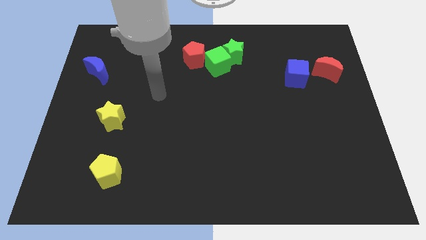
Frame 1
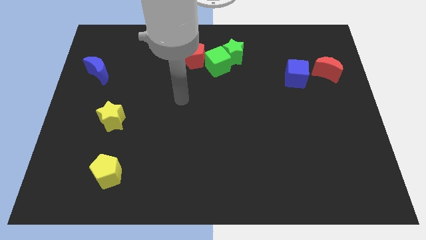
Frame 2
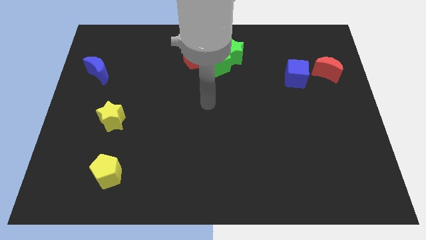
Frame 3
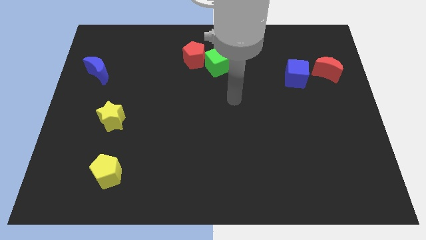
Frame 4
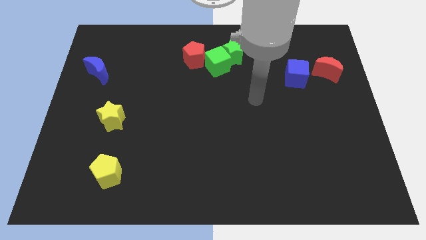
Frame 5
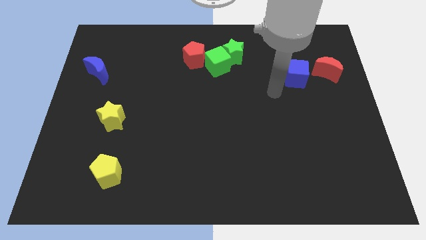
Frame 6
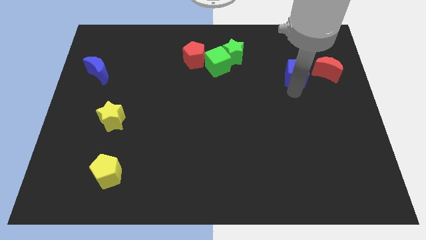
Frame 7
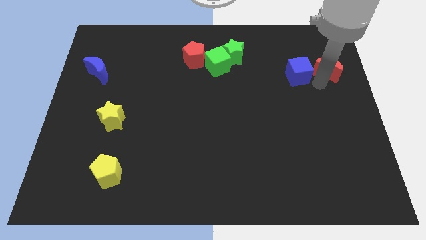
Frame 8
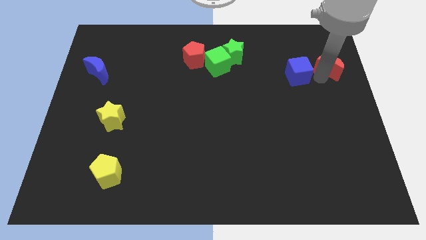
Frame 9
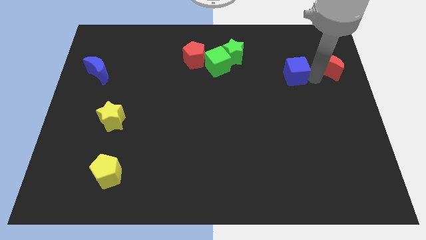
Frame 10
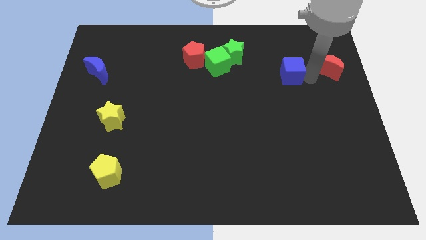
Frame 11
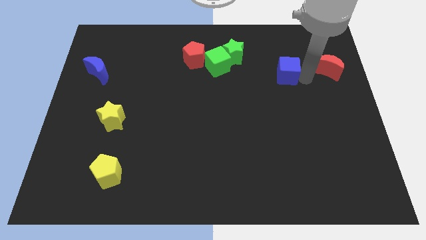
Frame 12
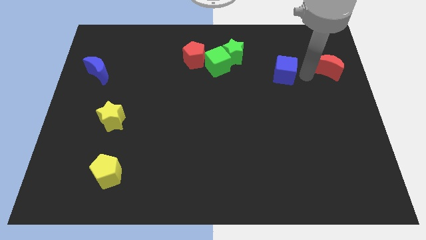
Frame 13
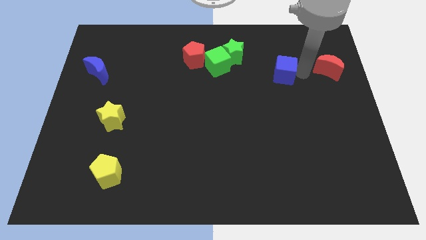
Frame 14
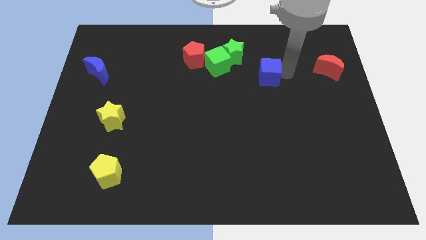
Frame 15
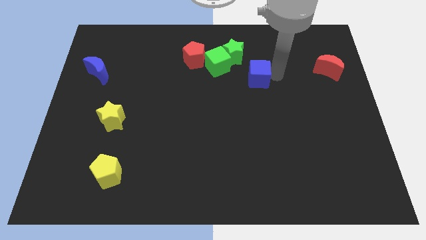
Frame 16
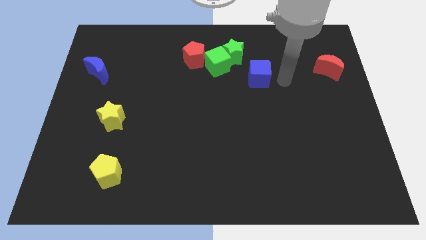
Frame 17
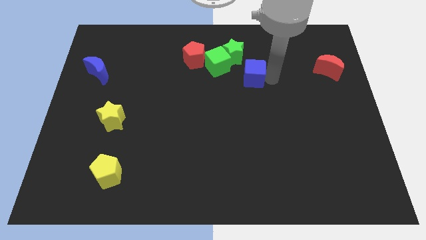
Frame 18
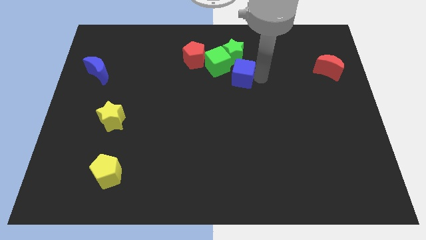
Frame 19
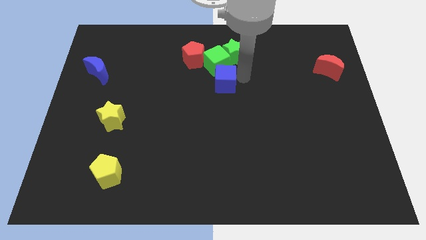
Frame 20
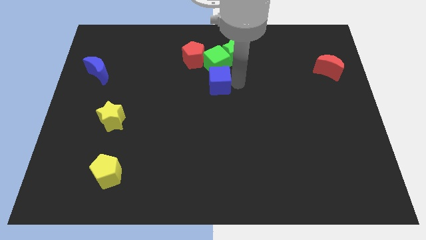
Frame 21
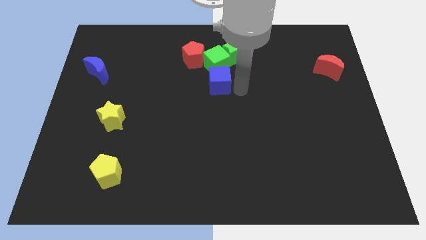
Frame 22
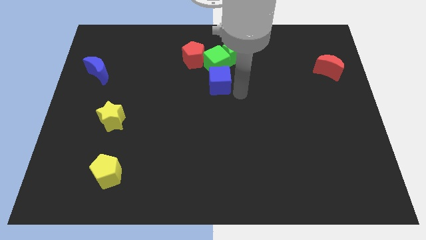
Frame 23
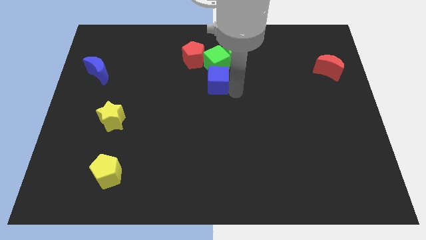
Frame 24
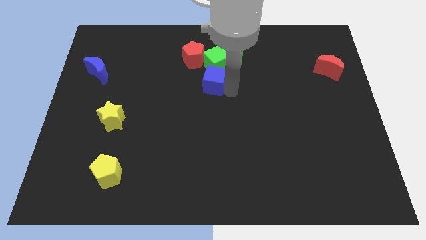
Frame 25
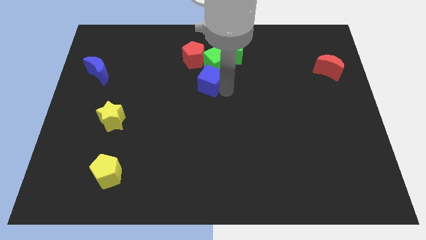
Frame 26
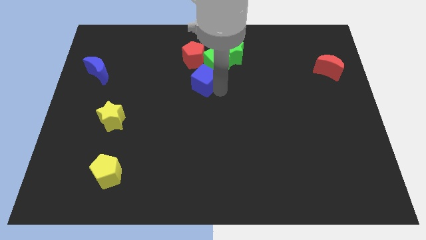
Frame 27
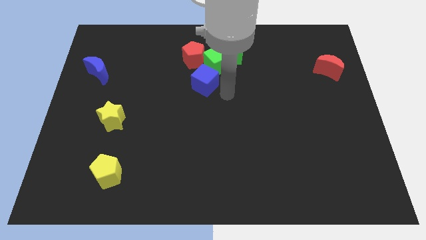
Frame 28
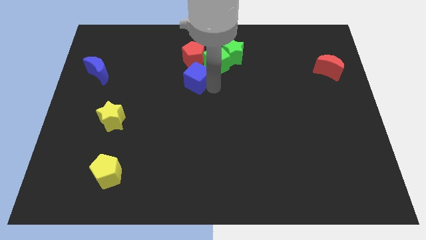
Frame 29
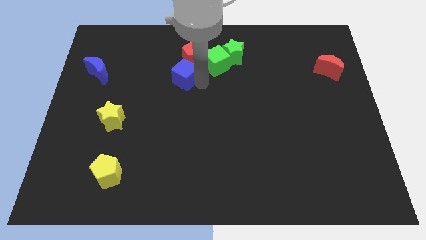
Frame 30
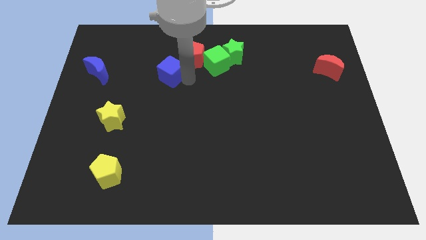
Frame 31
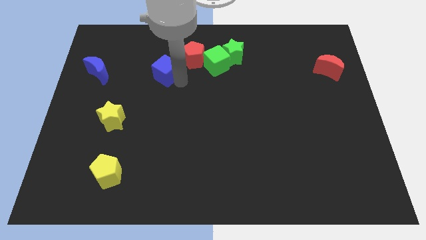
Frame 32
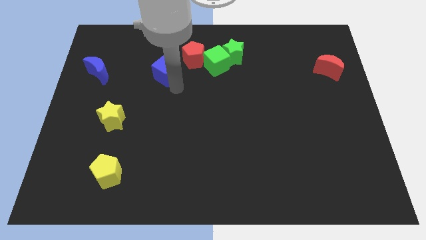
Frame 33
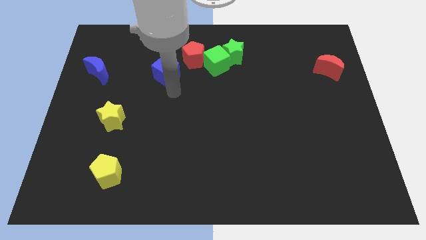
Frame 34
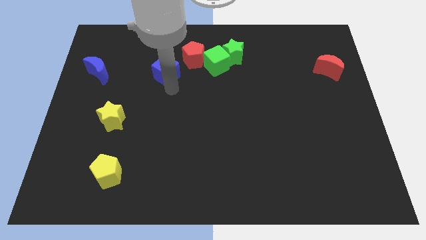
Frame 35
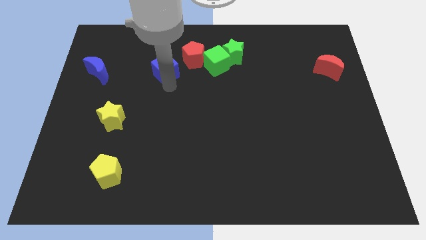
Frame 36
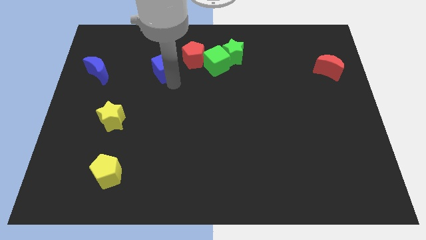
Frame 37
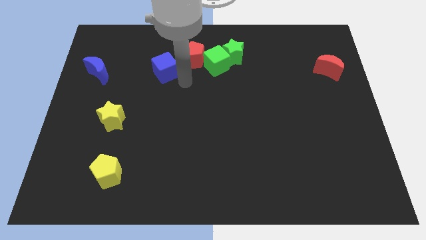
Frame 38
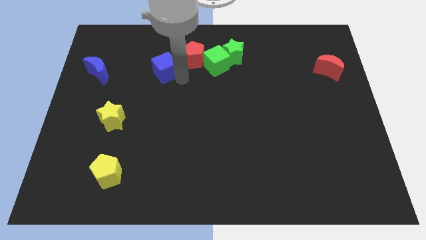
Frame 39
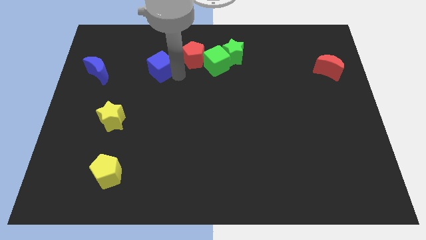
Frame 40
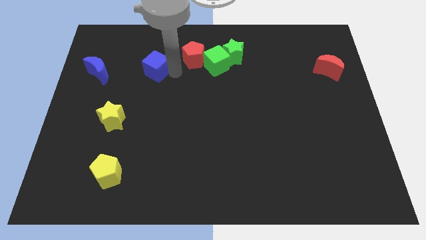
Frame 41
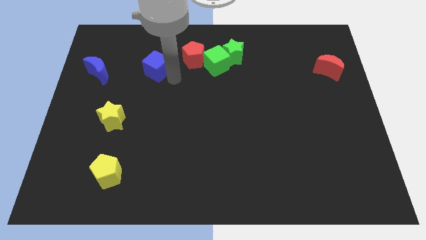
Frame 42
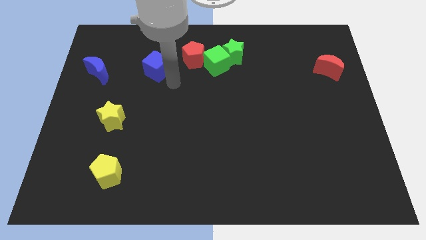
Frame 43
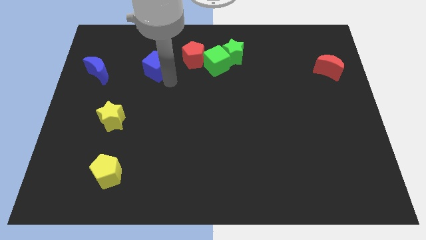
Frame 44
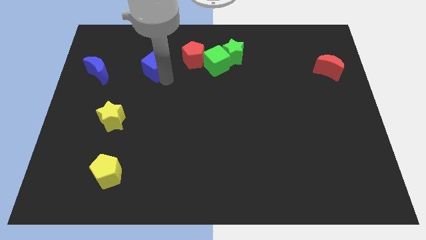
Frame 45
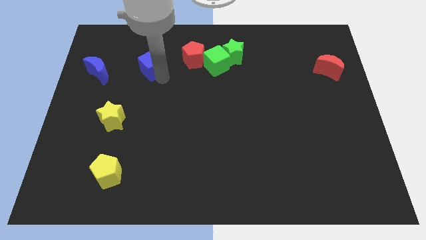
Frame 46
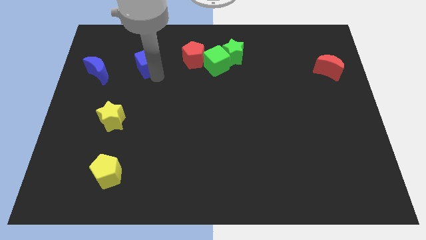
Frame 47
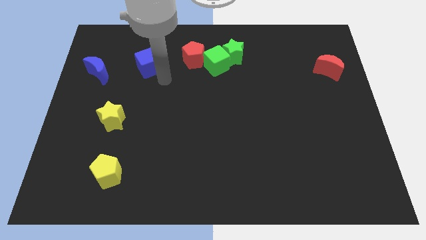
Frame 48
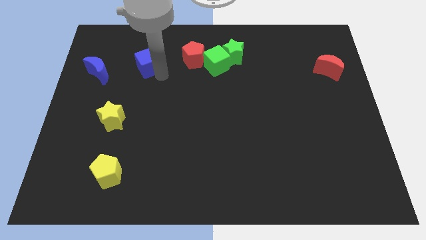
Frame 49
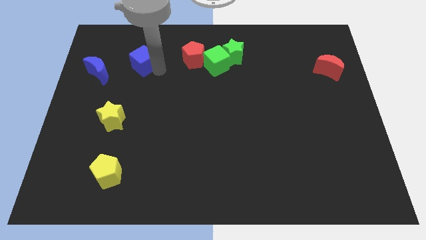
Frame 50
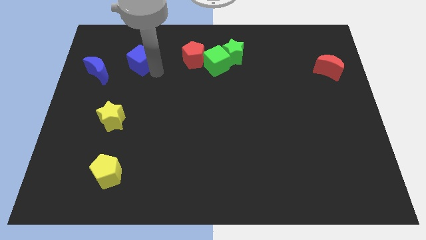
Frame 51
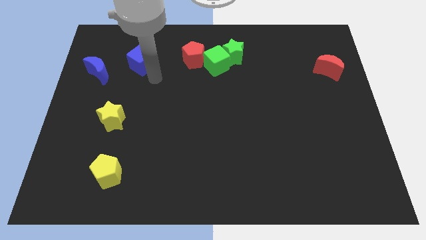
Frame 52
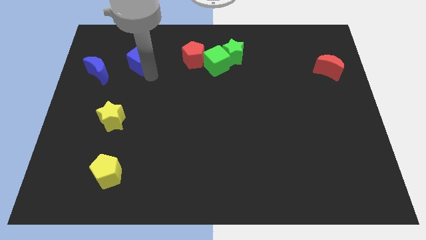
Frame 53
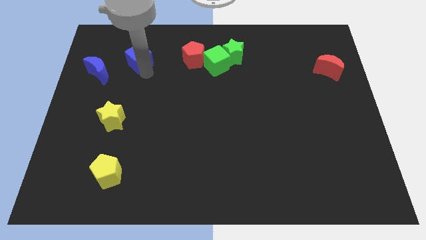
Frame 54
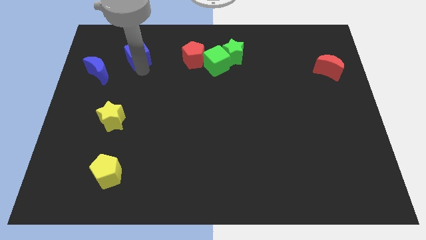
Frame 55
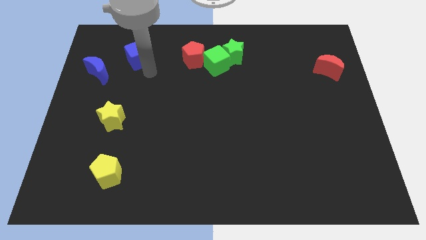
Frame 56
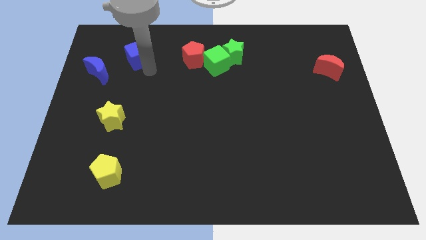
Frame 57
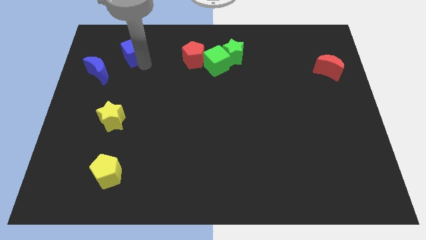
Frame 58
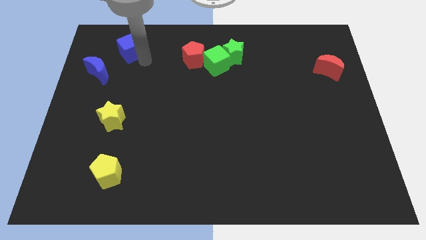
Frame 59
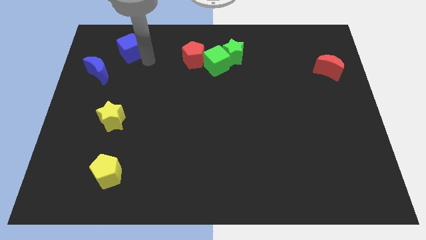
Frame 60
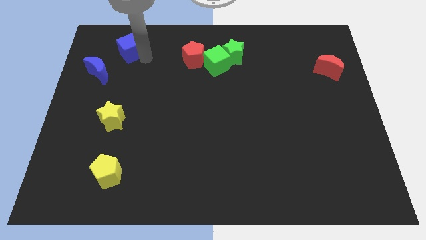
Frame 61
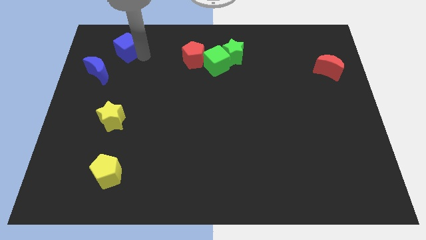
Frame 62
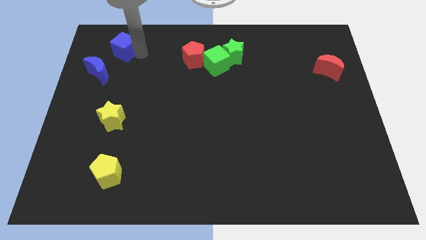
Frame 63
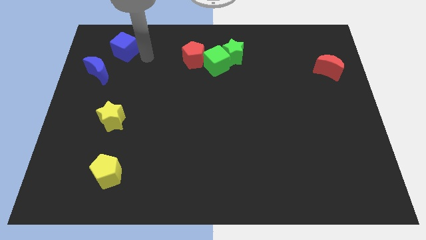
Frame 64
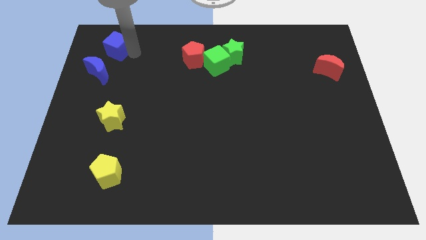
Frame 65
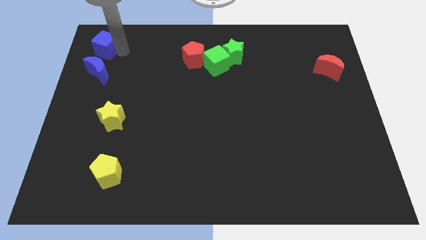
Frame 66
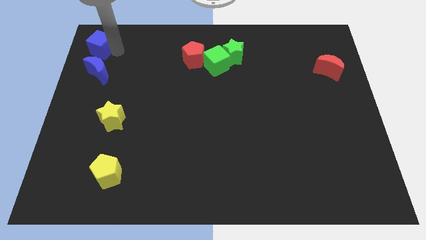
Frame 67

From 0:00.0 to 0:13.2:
put the blue cube to the top left of the board

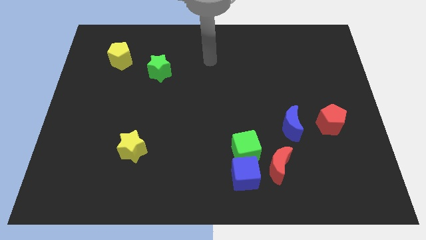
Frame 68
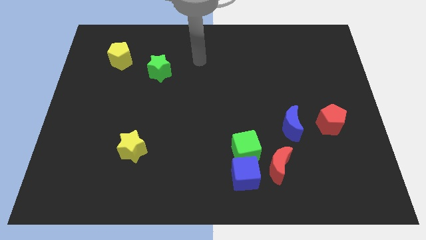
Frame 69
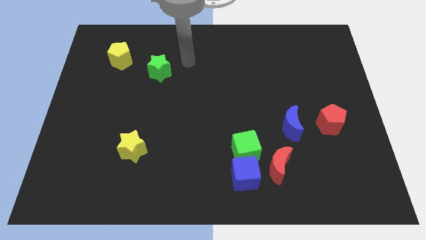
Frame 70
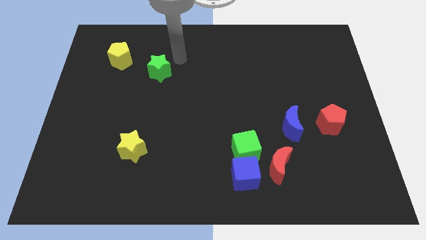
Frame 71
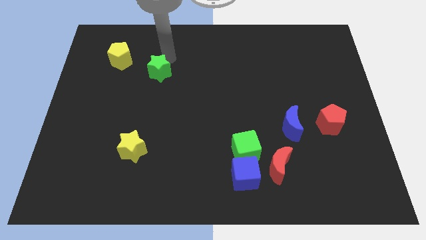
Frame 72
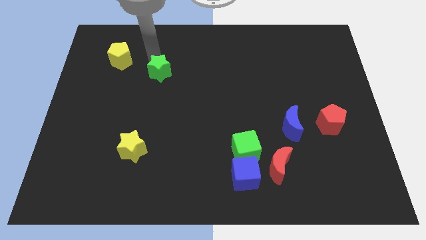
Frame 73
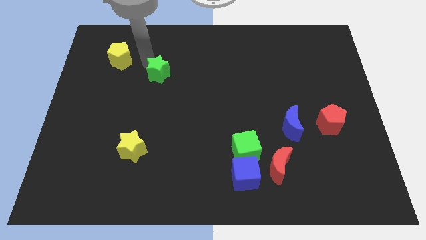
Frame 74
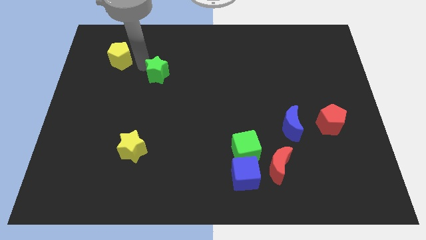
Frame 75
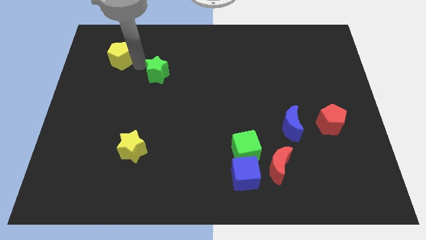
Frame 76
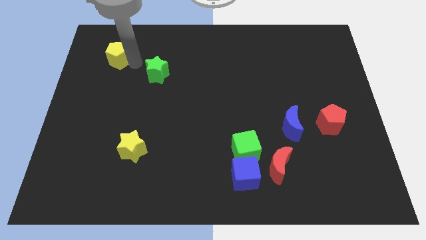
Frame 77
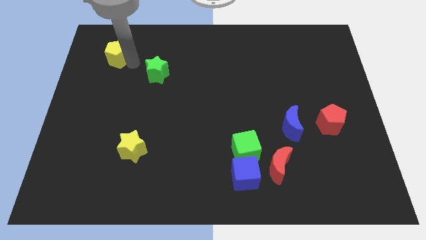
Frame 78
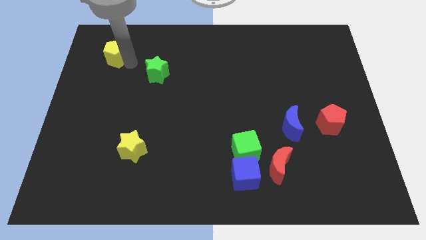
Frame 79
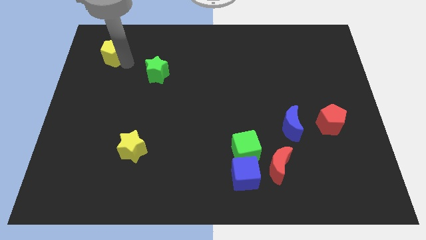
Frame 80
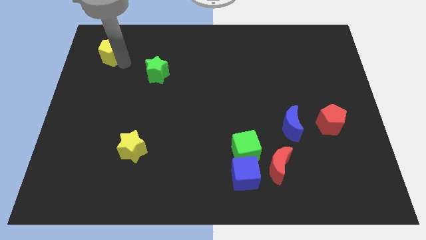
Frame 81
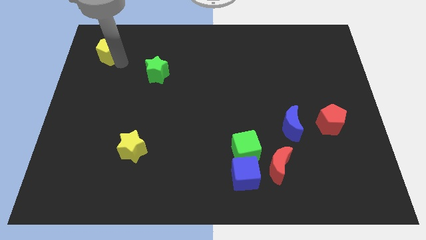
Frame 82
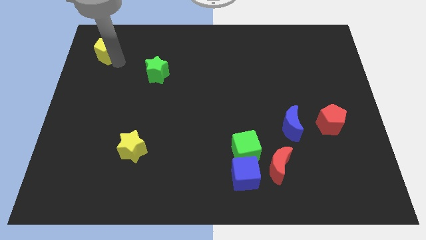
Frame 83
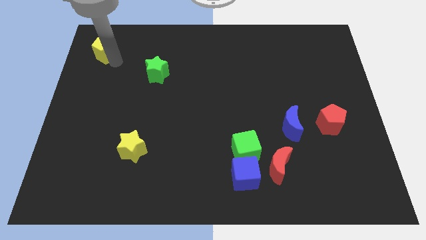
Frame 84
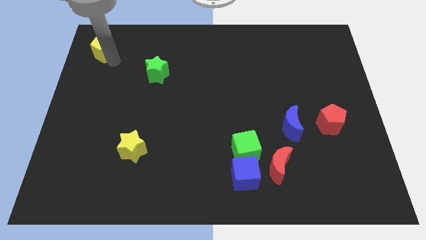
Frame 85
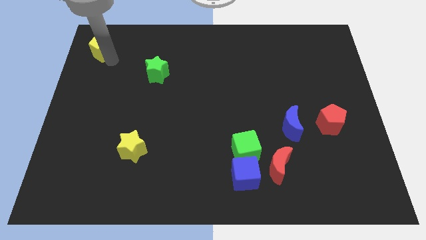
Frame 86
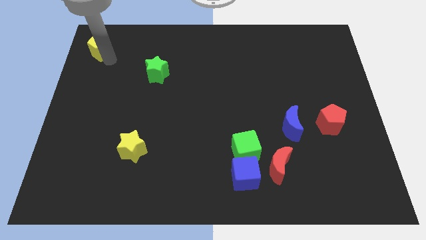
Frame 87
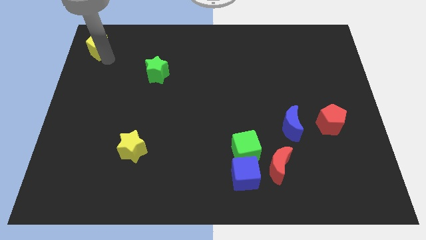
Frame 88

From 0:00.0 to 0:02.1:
put the yellow pentagon to the top left
